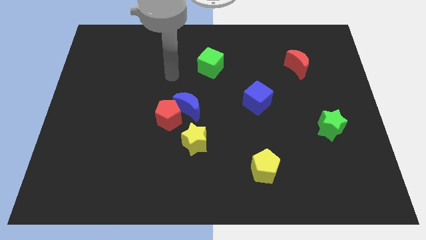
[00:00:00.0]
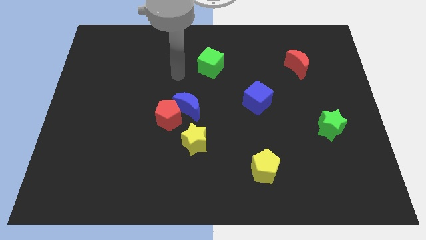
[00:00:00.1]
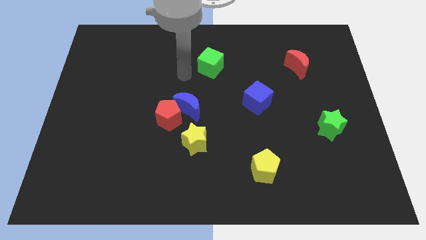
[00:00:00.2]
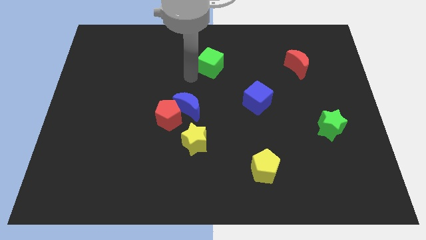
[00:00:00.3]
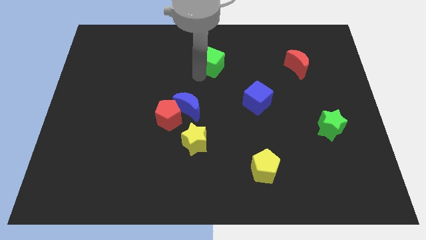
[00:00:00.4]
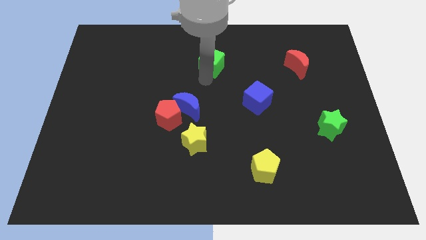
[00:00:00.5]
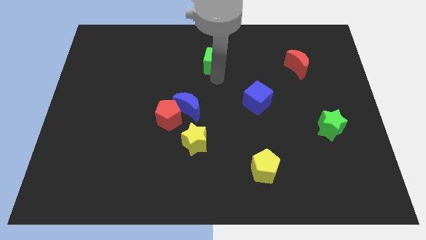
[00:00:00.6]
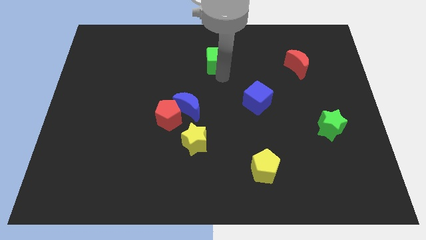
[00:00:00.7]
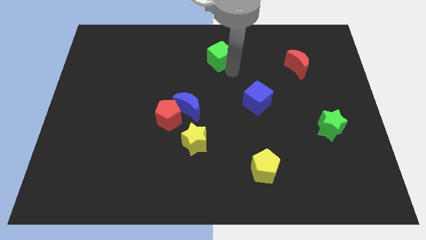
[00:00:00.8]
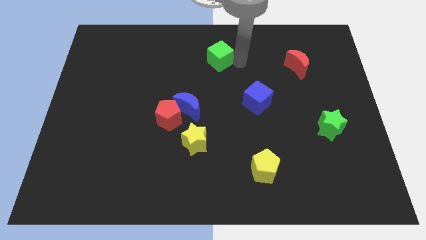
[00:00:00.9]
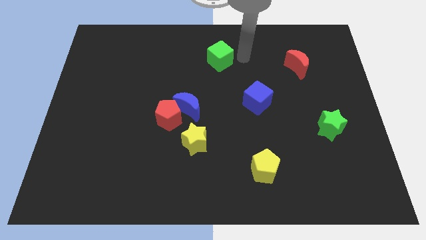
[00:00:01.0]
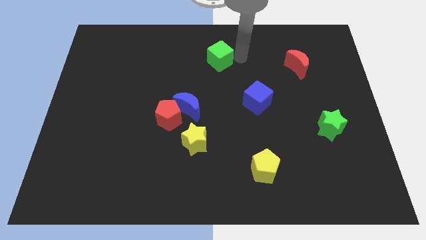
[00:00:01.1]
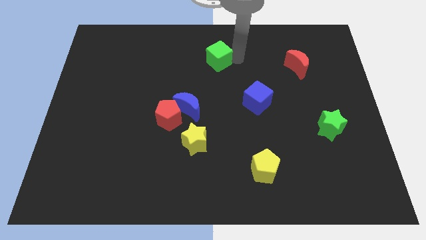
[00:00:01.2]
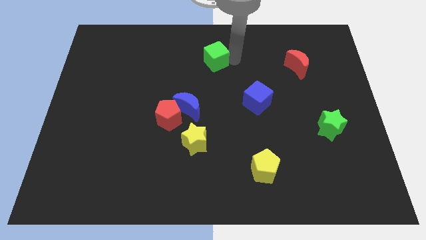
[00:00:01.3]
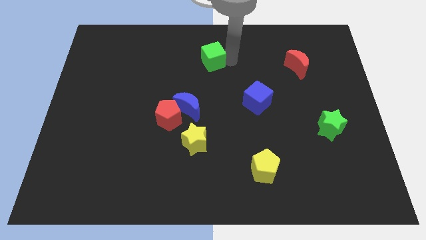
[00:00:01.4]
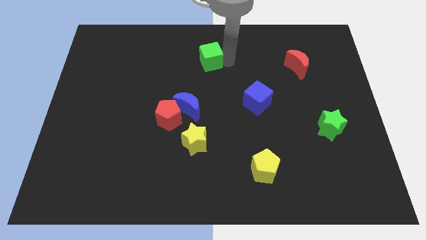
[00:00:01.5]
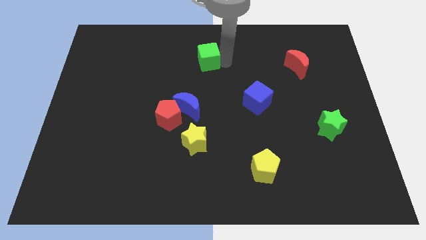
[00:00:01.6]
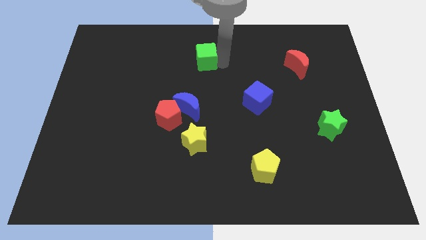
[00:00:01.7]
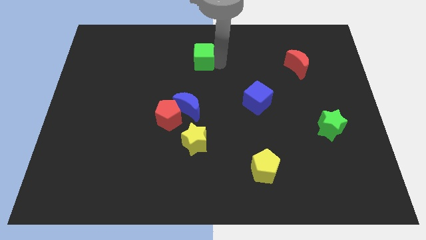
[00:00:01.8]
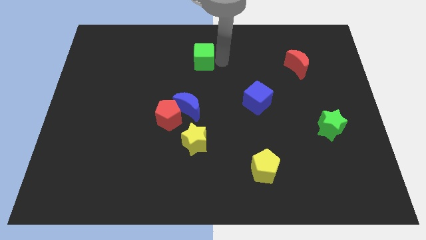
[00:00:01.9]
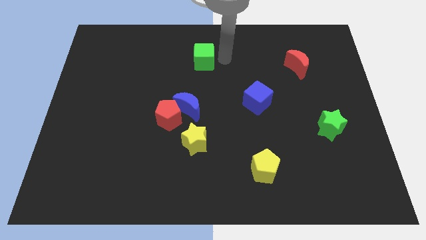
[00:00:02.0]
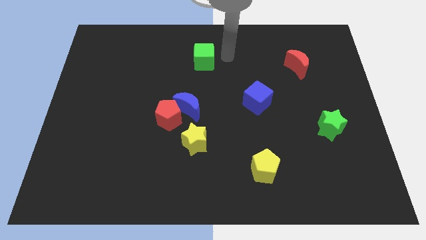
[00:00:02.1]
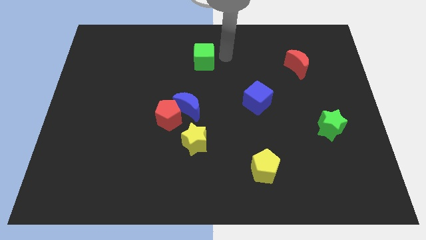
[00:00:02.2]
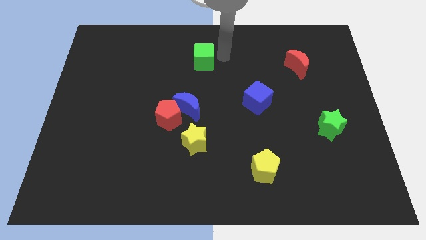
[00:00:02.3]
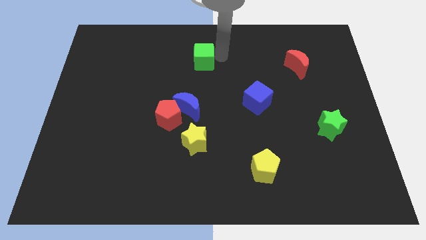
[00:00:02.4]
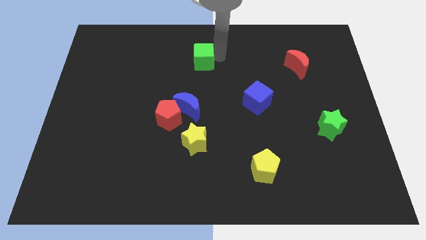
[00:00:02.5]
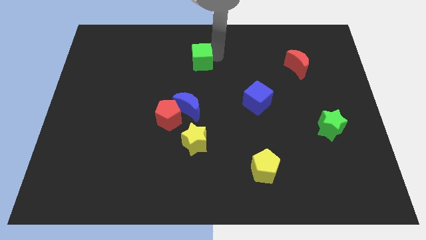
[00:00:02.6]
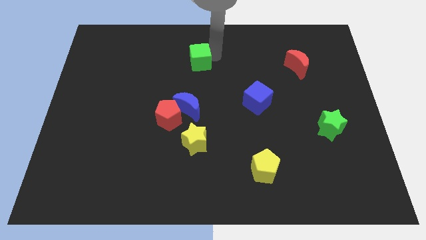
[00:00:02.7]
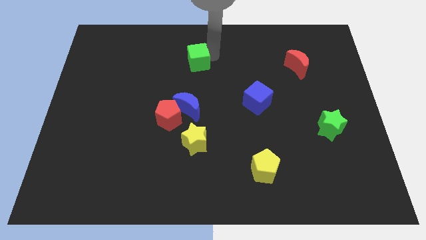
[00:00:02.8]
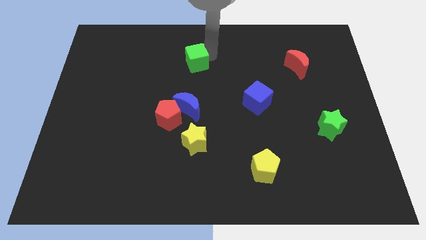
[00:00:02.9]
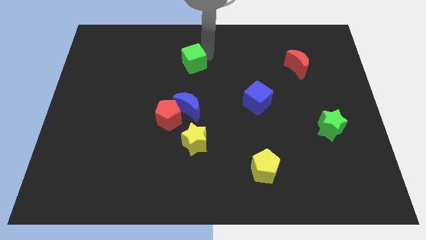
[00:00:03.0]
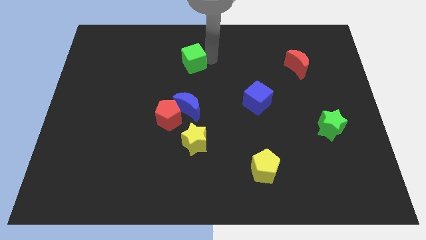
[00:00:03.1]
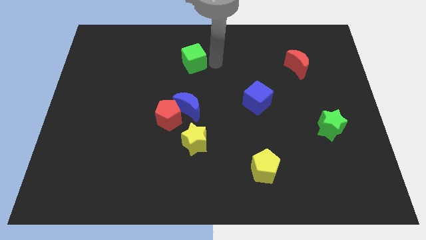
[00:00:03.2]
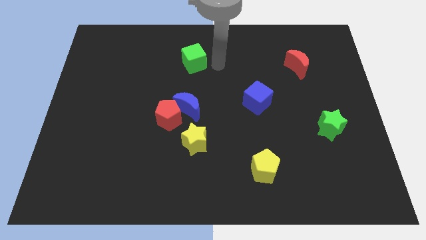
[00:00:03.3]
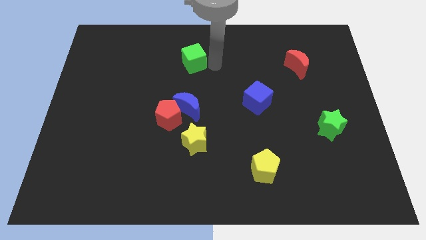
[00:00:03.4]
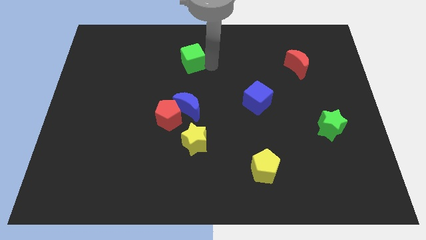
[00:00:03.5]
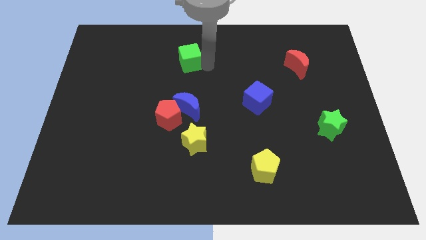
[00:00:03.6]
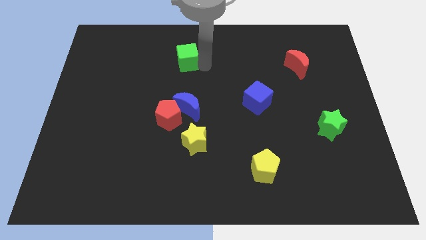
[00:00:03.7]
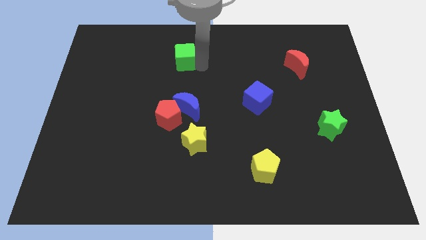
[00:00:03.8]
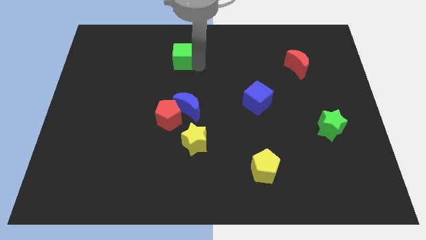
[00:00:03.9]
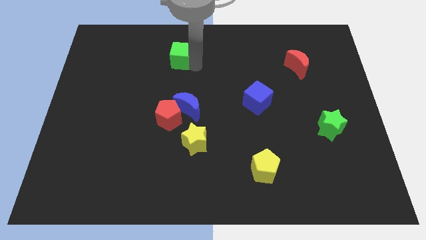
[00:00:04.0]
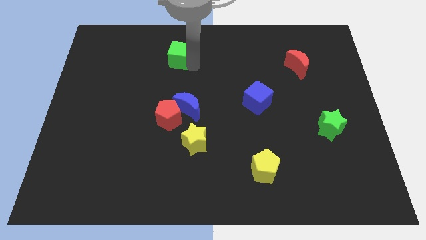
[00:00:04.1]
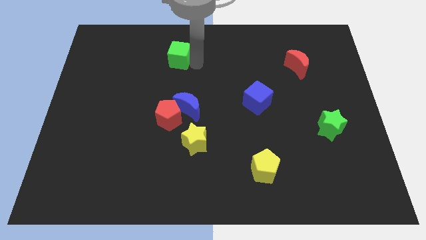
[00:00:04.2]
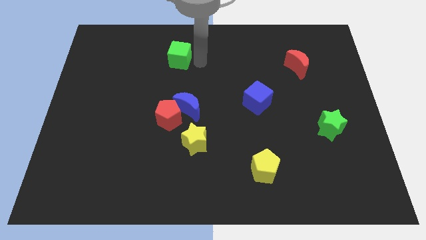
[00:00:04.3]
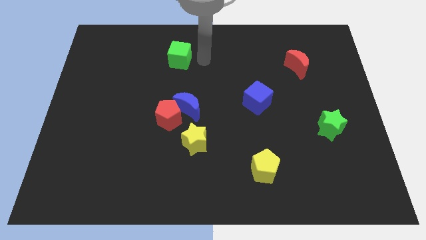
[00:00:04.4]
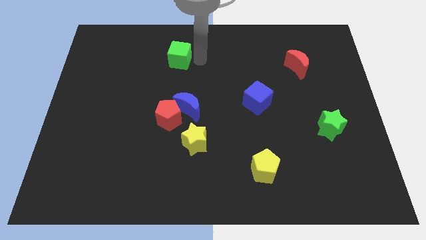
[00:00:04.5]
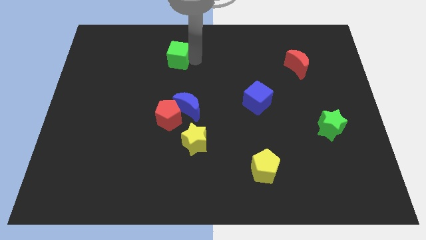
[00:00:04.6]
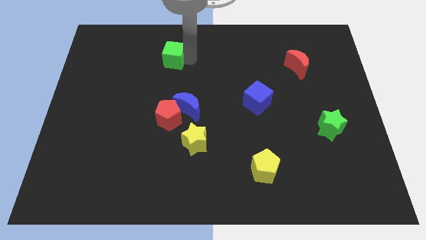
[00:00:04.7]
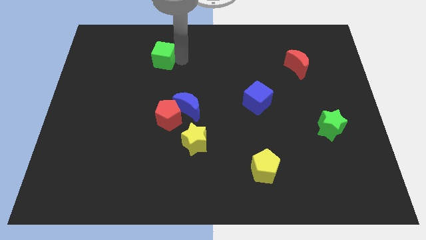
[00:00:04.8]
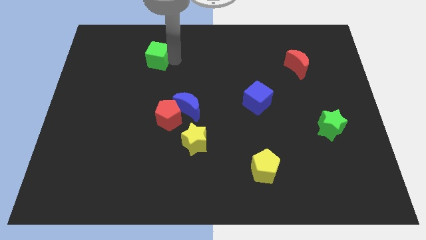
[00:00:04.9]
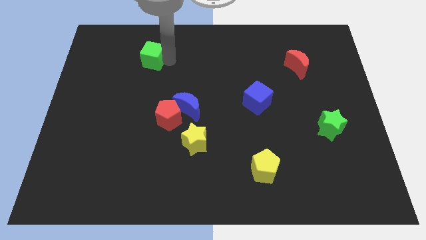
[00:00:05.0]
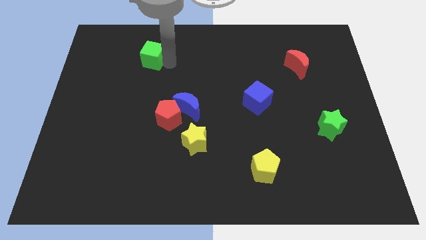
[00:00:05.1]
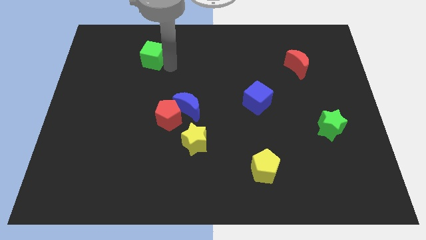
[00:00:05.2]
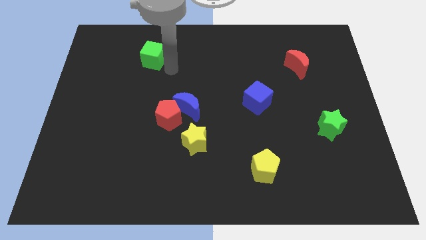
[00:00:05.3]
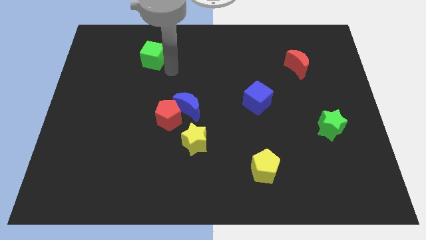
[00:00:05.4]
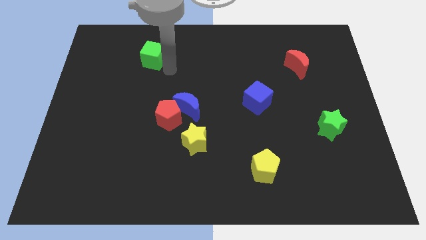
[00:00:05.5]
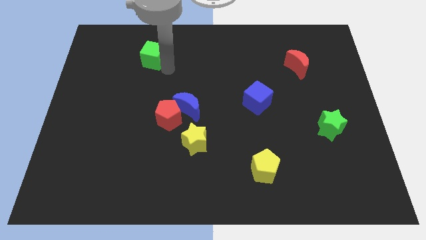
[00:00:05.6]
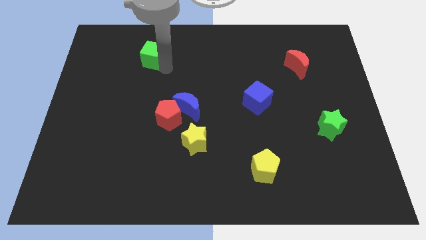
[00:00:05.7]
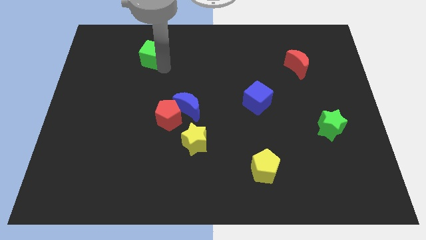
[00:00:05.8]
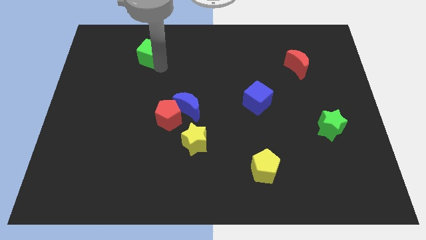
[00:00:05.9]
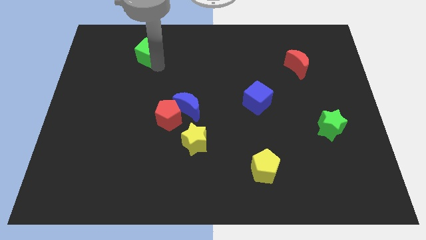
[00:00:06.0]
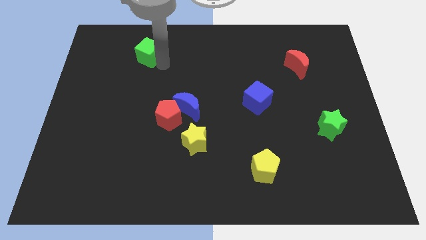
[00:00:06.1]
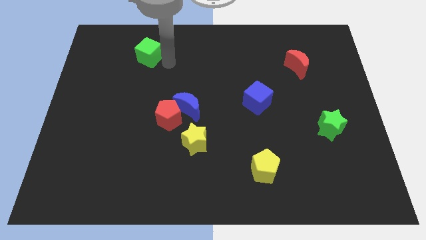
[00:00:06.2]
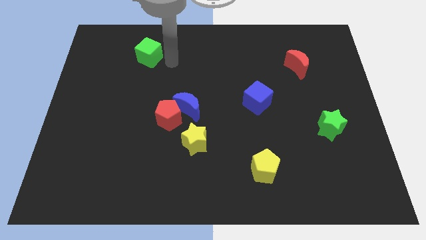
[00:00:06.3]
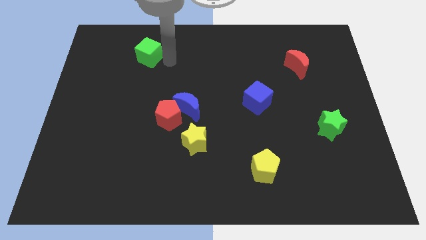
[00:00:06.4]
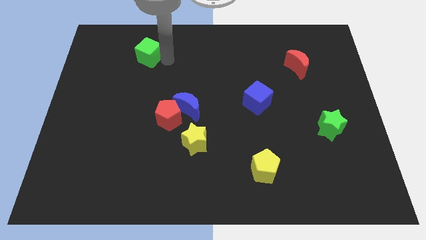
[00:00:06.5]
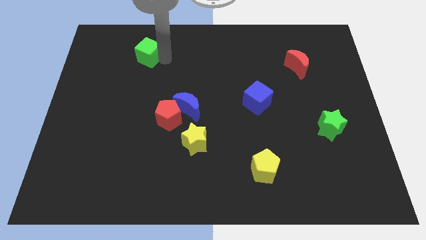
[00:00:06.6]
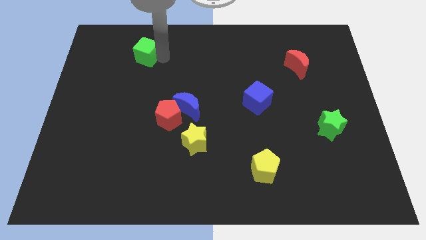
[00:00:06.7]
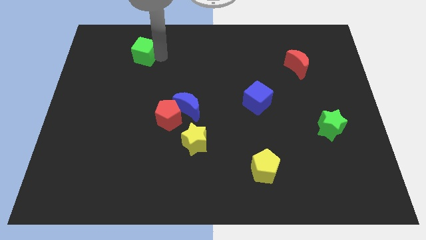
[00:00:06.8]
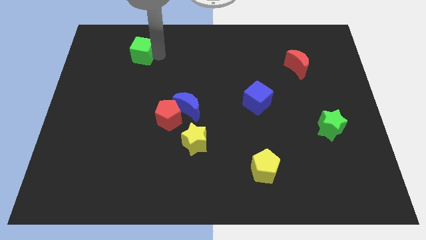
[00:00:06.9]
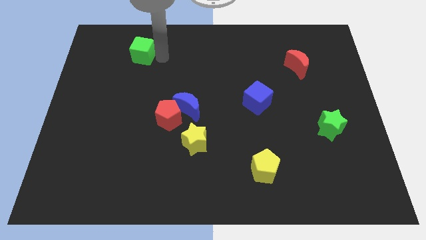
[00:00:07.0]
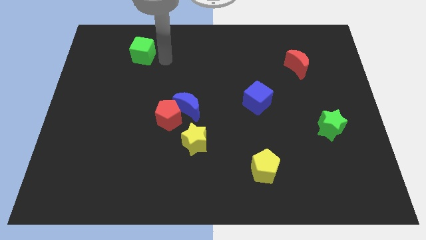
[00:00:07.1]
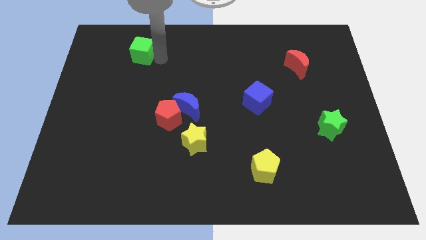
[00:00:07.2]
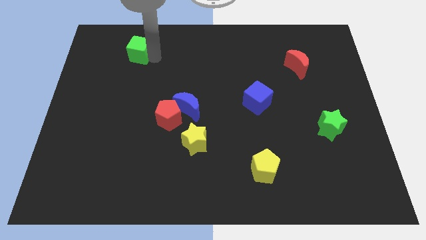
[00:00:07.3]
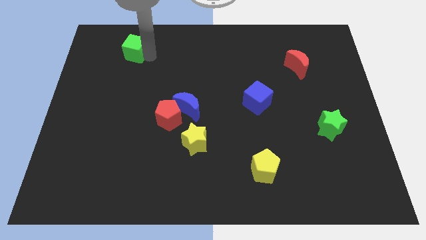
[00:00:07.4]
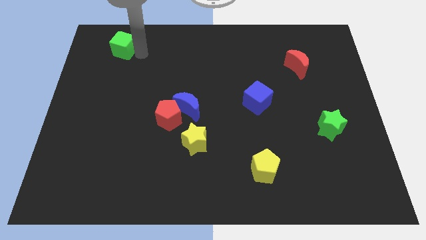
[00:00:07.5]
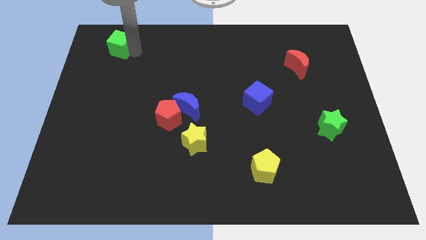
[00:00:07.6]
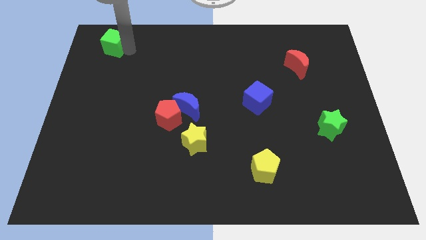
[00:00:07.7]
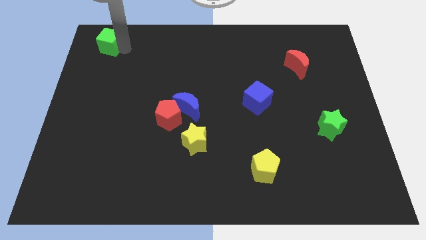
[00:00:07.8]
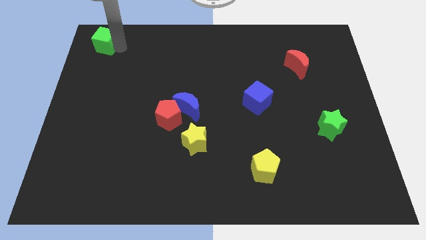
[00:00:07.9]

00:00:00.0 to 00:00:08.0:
slide the green cube to the top left
